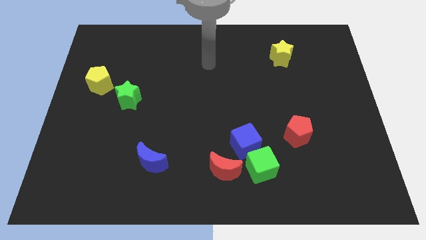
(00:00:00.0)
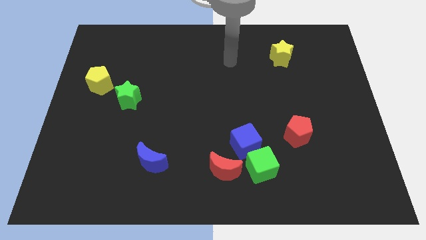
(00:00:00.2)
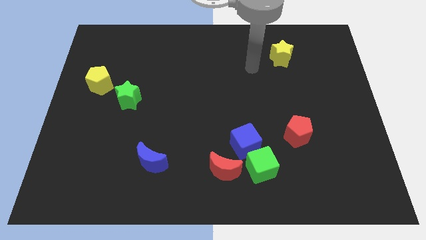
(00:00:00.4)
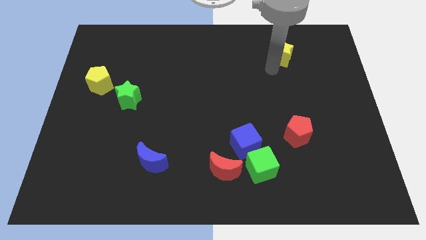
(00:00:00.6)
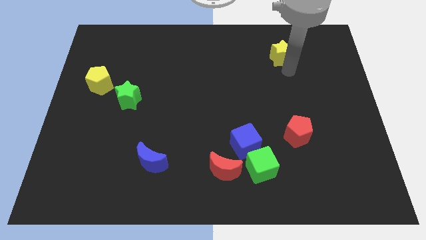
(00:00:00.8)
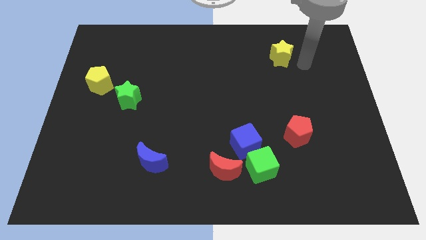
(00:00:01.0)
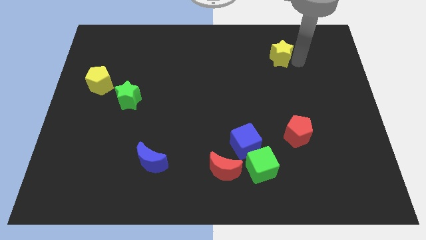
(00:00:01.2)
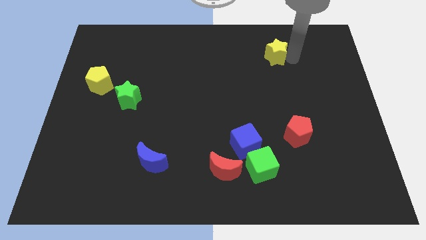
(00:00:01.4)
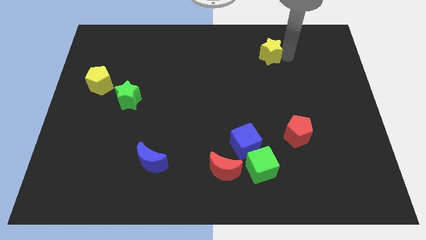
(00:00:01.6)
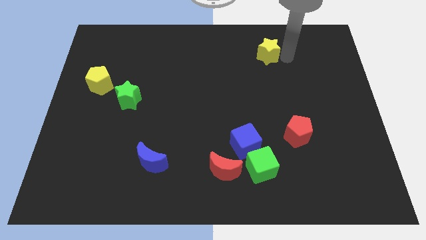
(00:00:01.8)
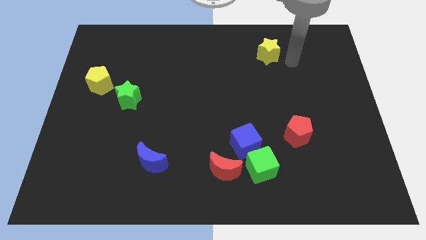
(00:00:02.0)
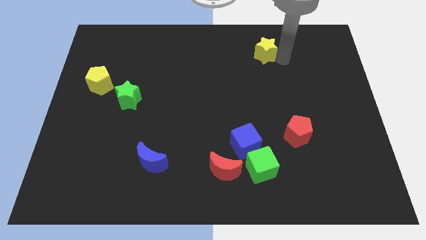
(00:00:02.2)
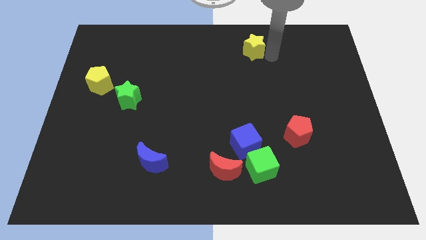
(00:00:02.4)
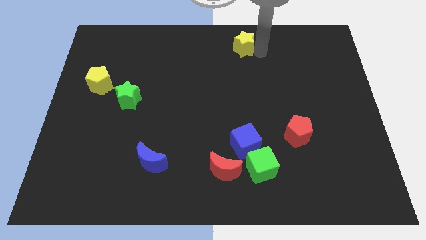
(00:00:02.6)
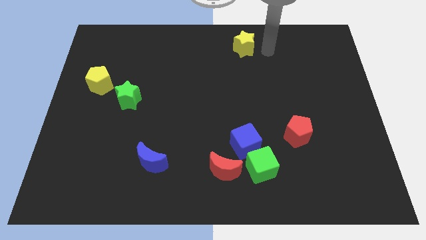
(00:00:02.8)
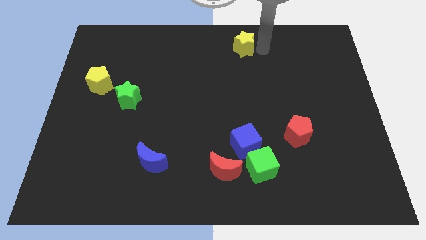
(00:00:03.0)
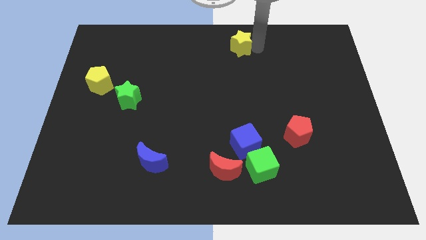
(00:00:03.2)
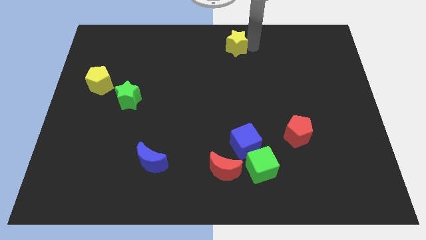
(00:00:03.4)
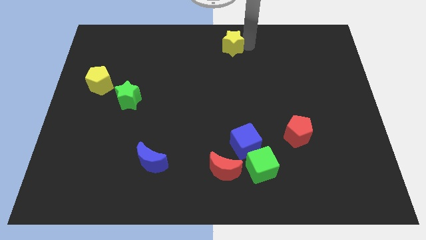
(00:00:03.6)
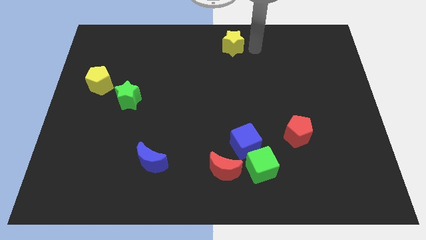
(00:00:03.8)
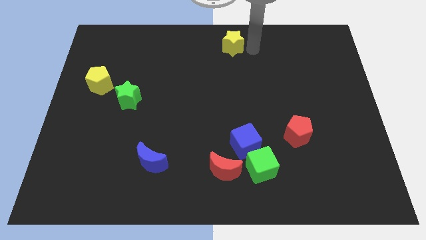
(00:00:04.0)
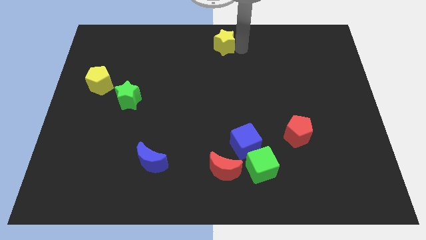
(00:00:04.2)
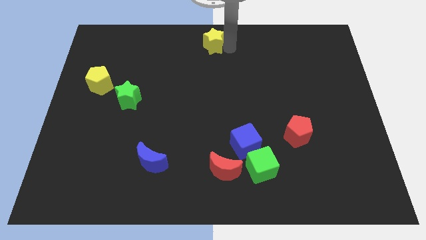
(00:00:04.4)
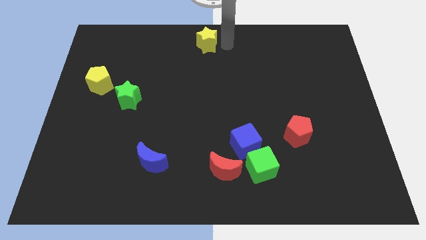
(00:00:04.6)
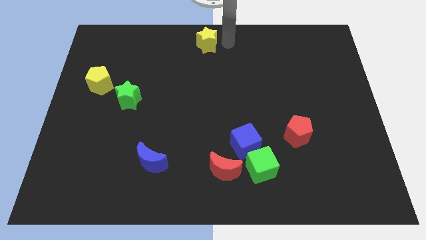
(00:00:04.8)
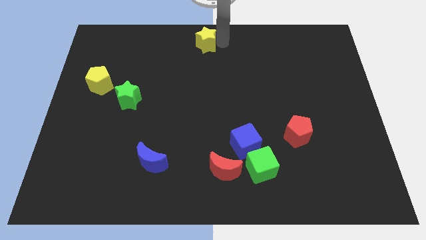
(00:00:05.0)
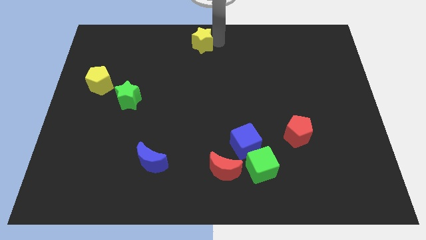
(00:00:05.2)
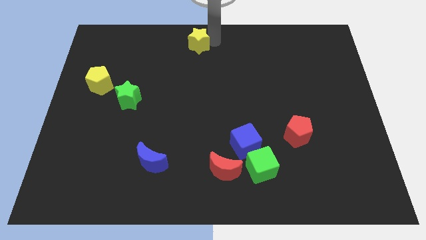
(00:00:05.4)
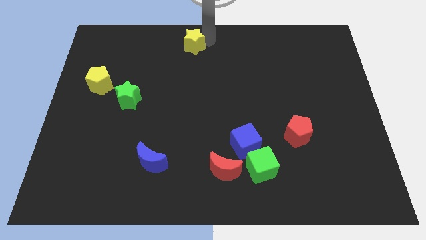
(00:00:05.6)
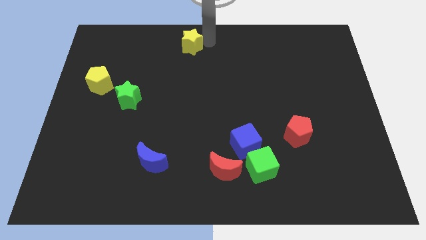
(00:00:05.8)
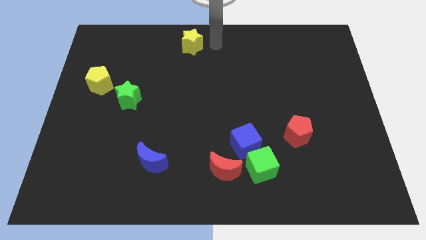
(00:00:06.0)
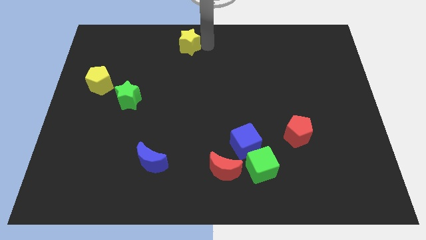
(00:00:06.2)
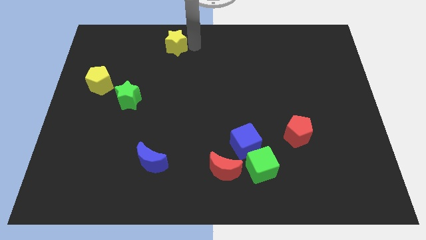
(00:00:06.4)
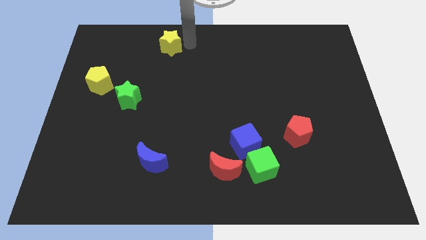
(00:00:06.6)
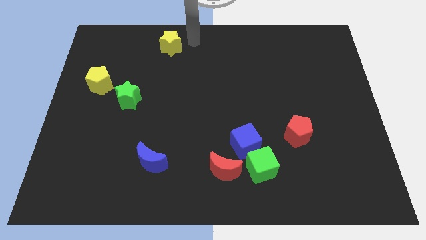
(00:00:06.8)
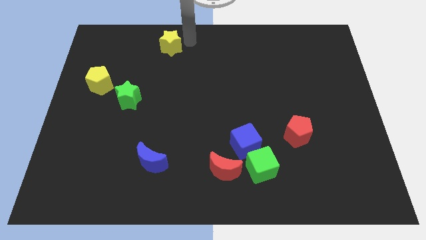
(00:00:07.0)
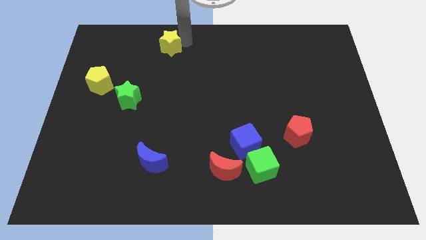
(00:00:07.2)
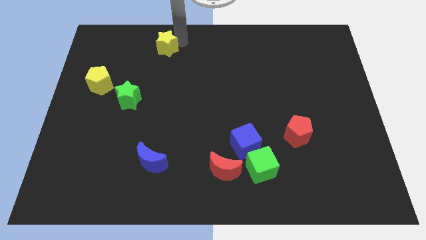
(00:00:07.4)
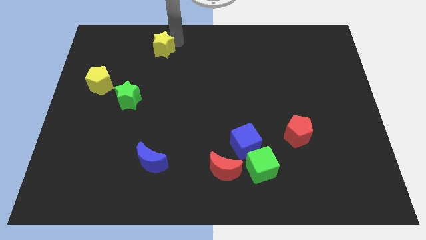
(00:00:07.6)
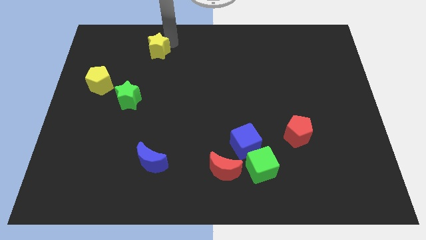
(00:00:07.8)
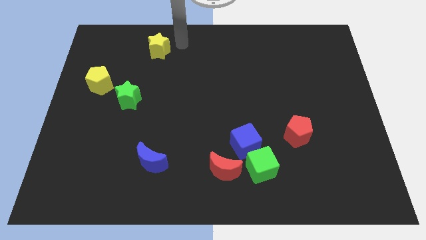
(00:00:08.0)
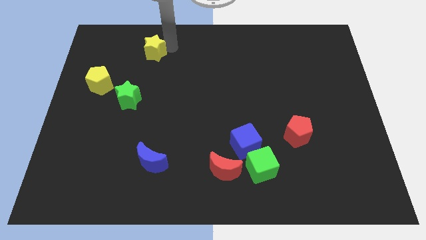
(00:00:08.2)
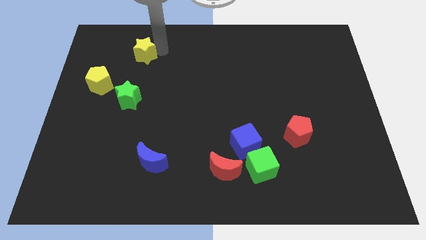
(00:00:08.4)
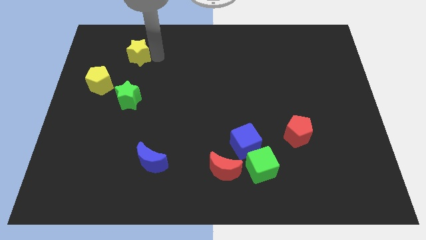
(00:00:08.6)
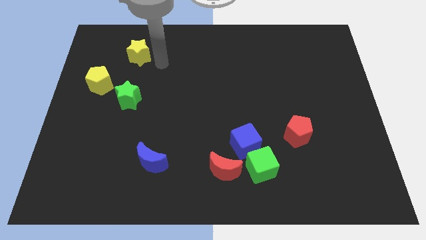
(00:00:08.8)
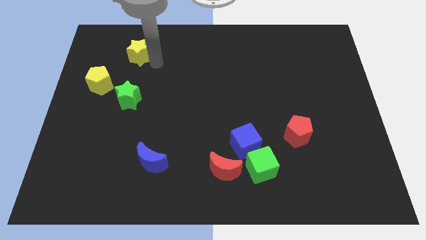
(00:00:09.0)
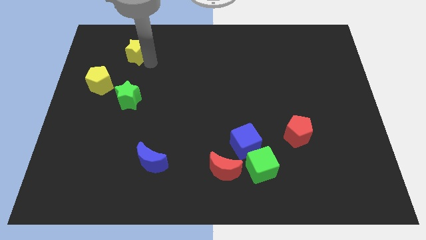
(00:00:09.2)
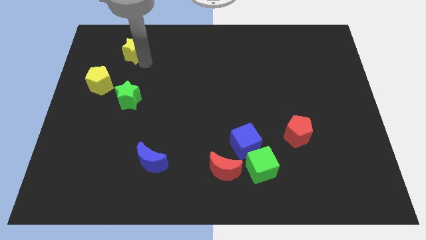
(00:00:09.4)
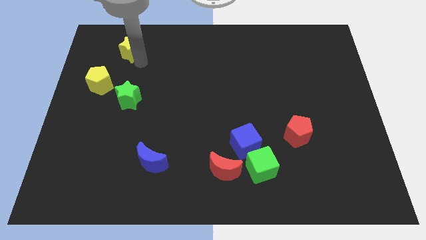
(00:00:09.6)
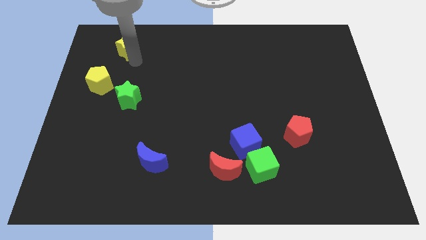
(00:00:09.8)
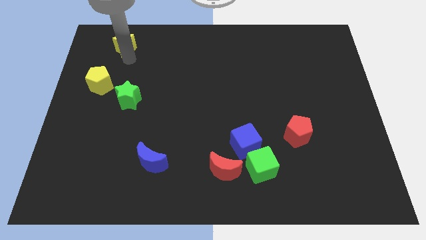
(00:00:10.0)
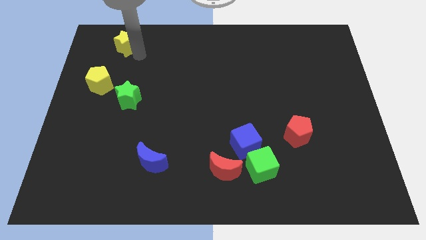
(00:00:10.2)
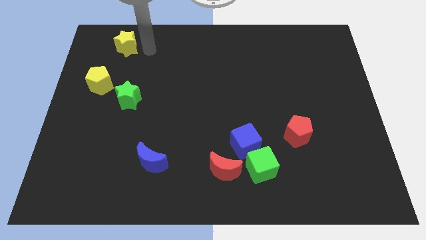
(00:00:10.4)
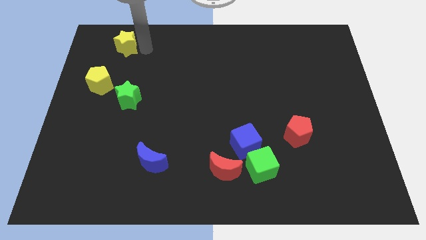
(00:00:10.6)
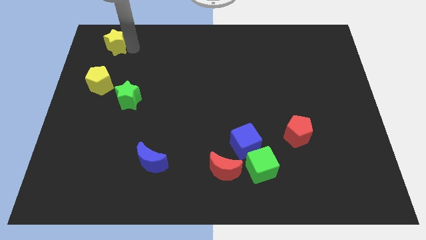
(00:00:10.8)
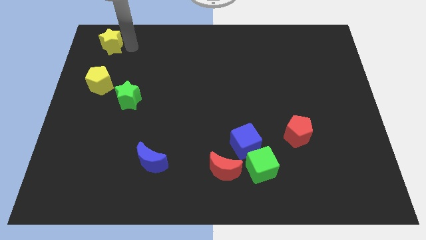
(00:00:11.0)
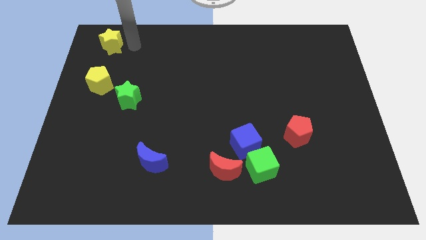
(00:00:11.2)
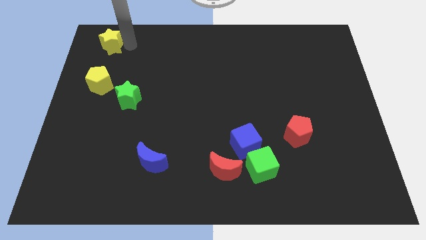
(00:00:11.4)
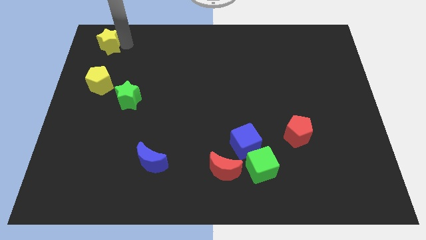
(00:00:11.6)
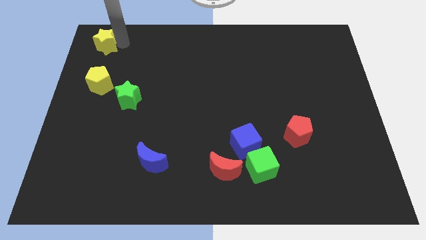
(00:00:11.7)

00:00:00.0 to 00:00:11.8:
move the yellow star to the top left of the board

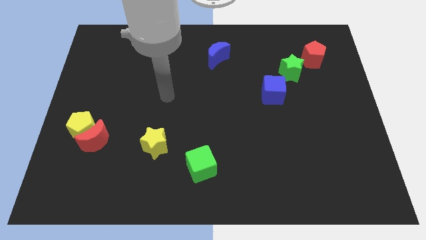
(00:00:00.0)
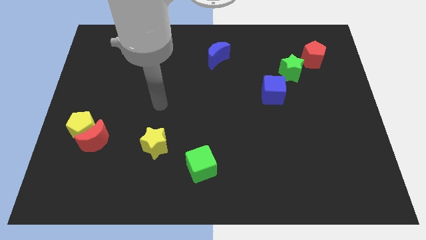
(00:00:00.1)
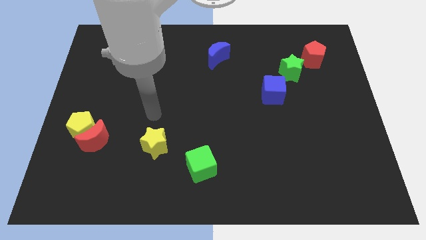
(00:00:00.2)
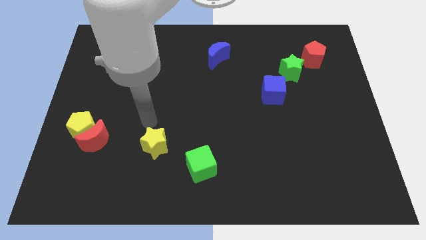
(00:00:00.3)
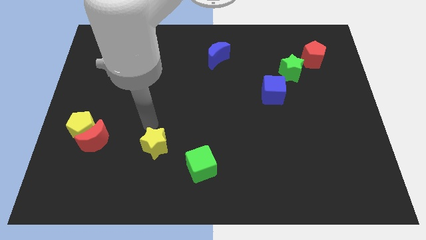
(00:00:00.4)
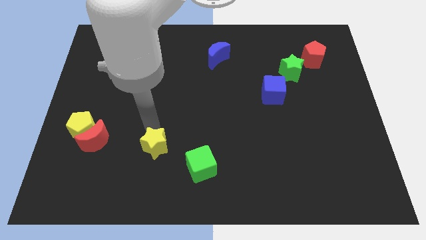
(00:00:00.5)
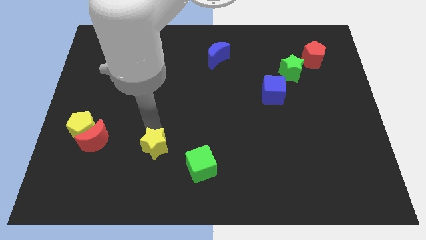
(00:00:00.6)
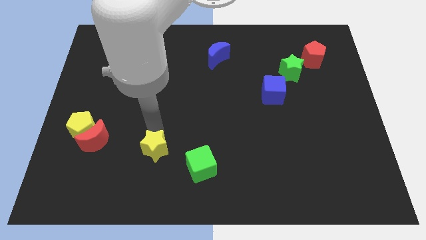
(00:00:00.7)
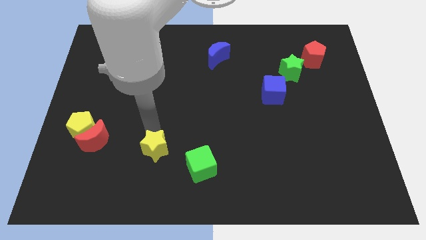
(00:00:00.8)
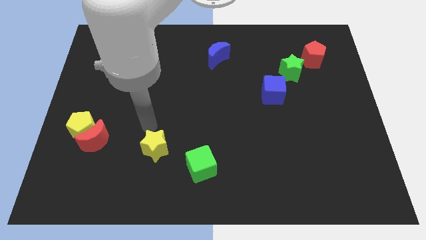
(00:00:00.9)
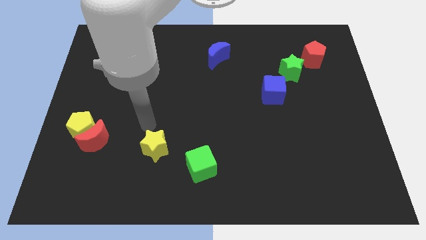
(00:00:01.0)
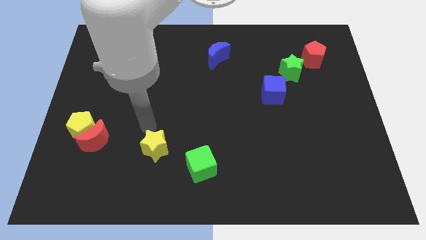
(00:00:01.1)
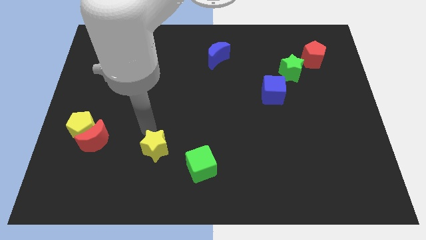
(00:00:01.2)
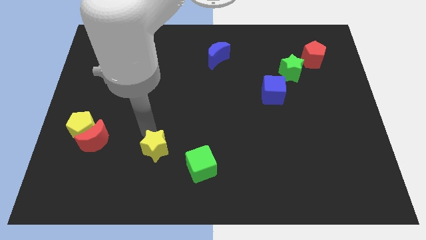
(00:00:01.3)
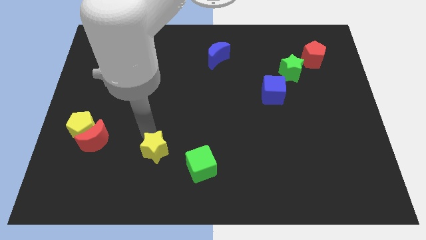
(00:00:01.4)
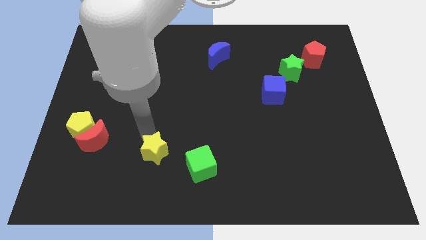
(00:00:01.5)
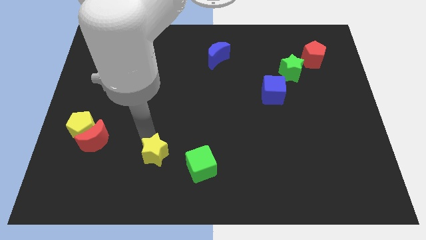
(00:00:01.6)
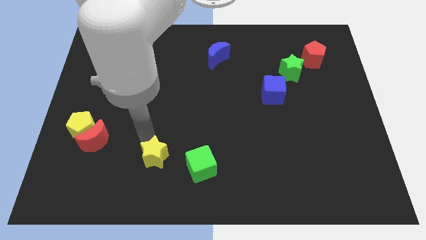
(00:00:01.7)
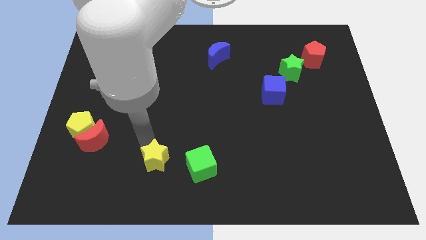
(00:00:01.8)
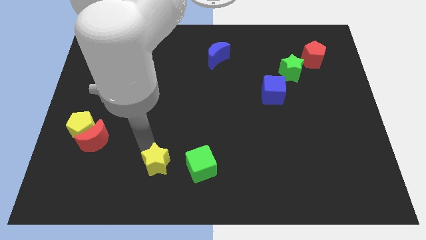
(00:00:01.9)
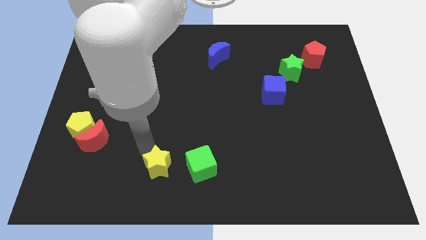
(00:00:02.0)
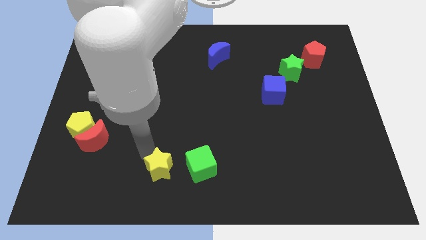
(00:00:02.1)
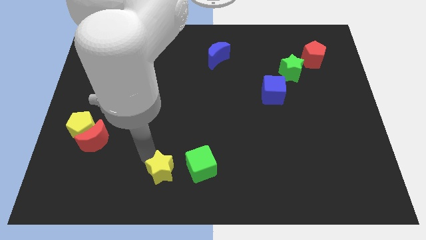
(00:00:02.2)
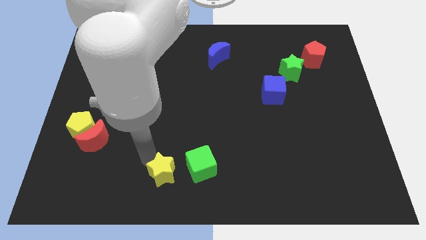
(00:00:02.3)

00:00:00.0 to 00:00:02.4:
push the yellow star to the bottom side
